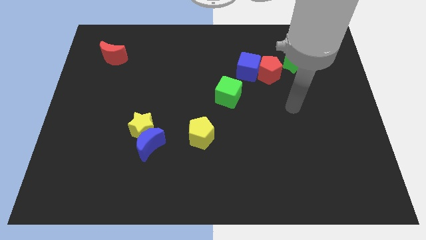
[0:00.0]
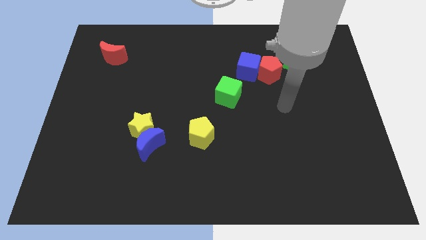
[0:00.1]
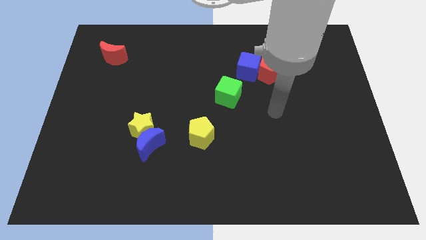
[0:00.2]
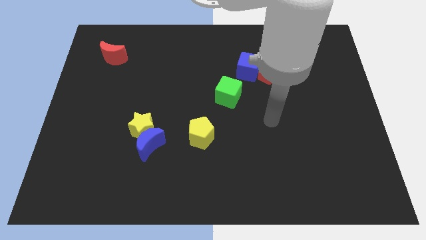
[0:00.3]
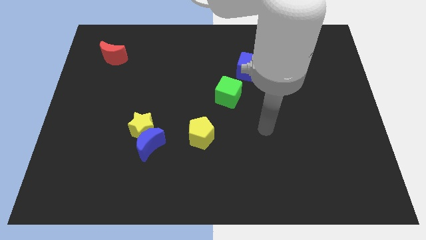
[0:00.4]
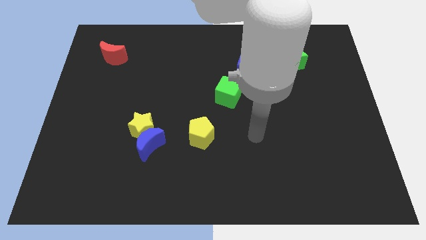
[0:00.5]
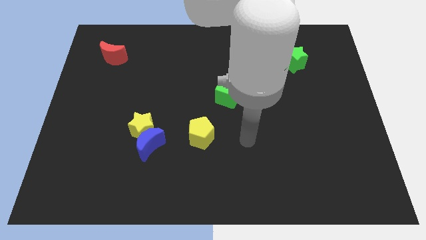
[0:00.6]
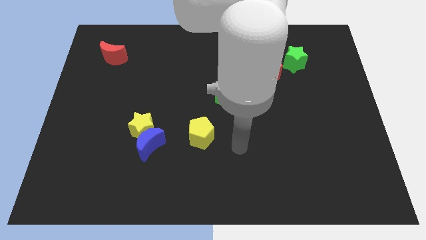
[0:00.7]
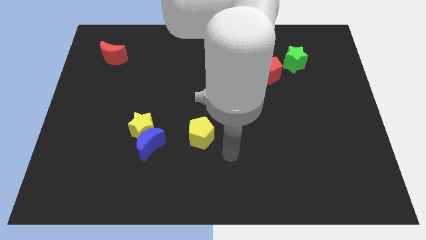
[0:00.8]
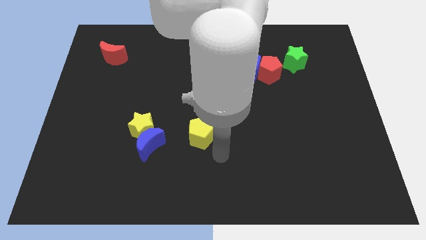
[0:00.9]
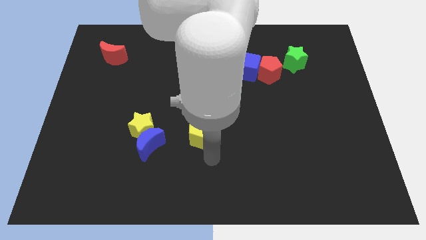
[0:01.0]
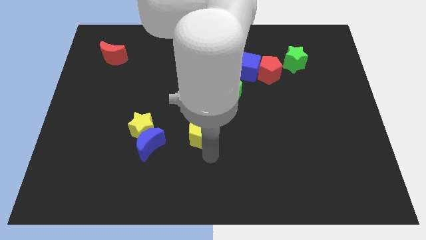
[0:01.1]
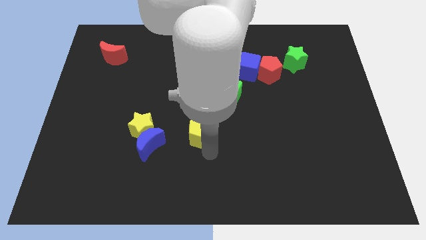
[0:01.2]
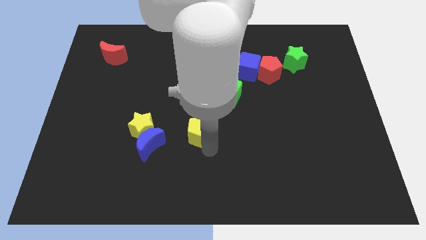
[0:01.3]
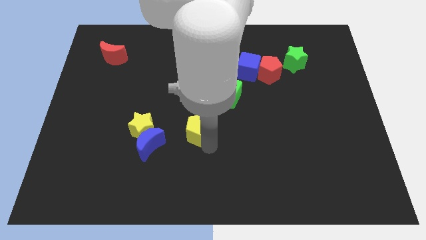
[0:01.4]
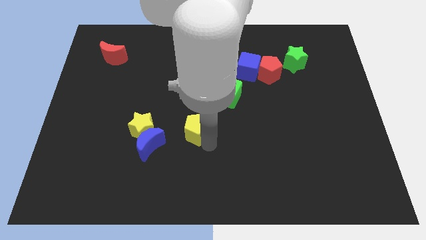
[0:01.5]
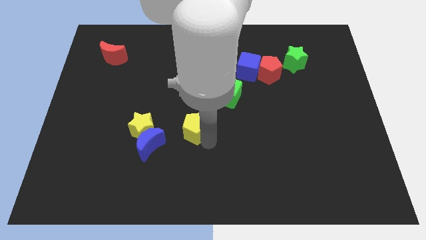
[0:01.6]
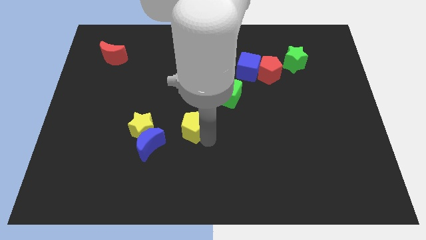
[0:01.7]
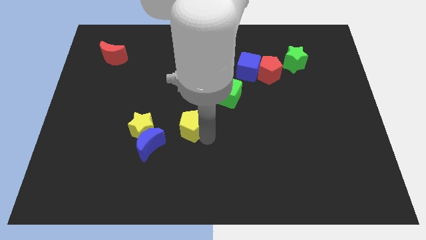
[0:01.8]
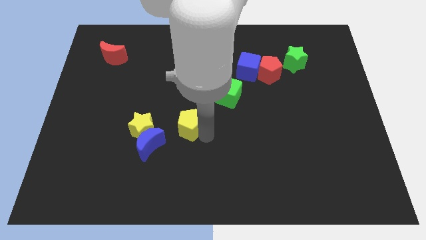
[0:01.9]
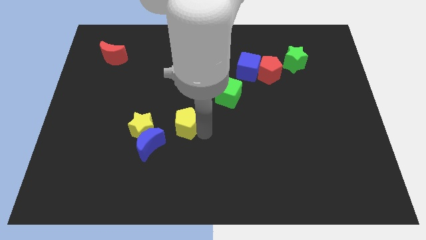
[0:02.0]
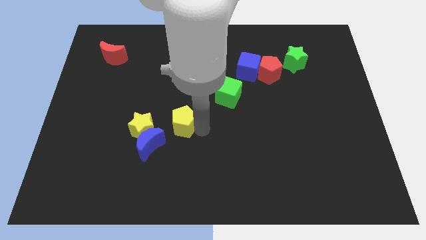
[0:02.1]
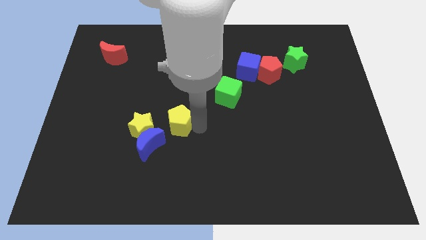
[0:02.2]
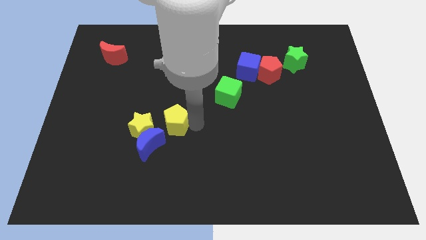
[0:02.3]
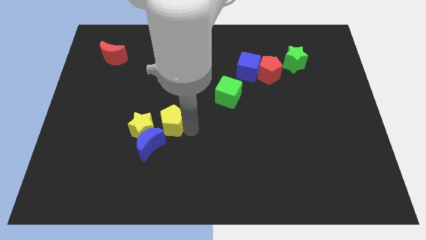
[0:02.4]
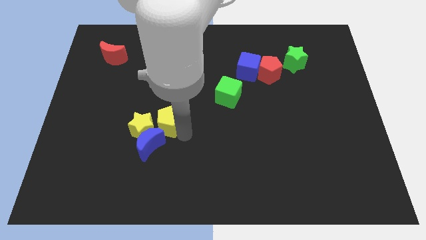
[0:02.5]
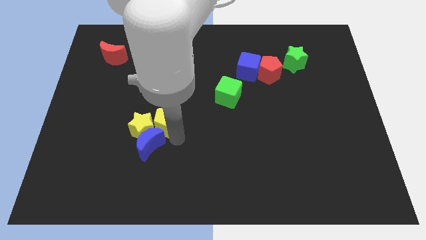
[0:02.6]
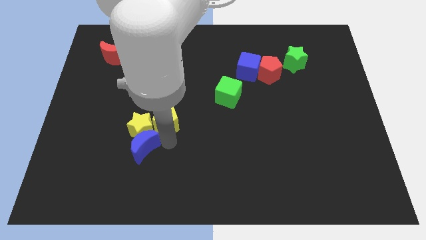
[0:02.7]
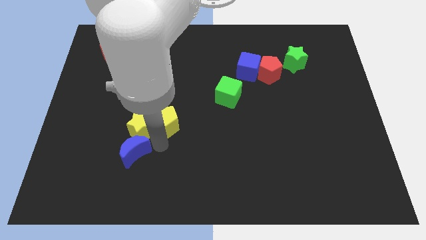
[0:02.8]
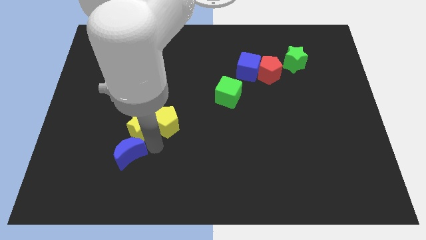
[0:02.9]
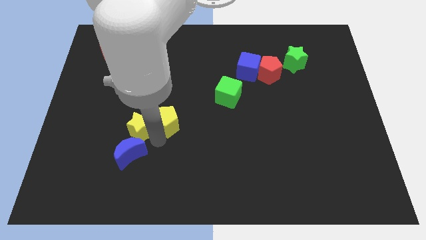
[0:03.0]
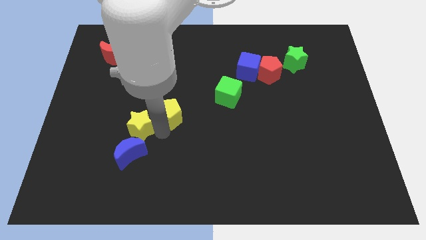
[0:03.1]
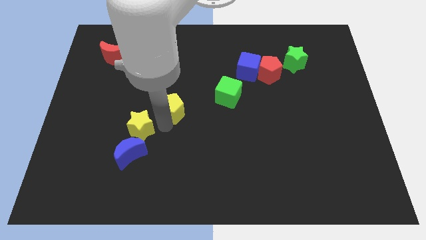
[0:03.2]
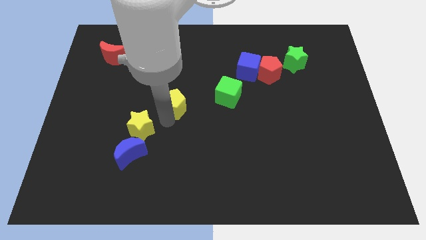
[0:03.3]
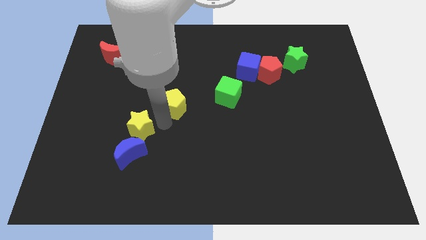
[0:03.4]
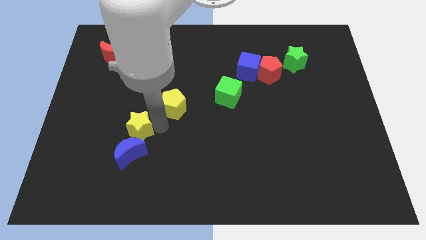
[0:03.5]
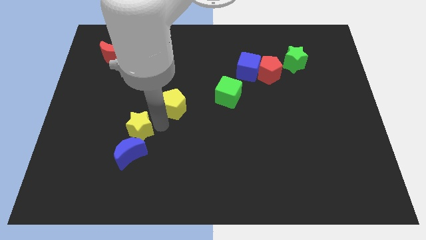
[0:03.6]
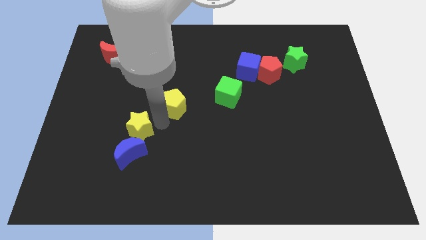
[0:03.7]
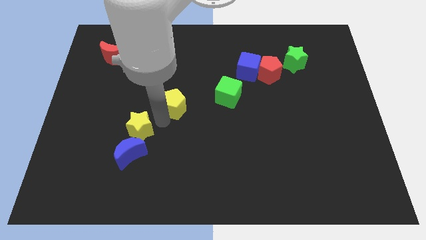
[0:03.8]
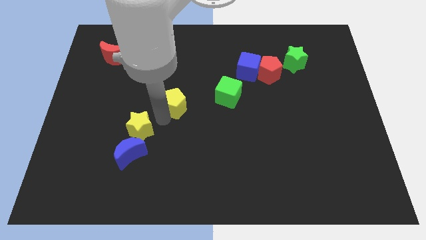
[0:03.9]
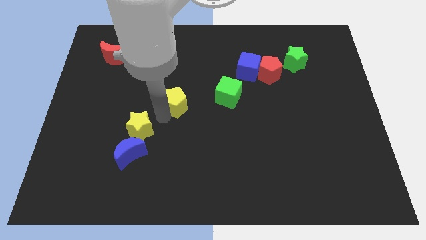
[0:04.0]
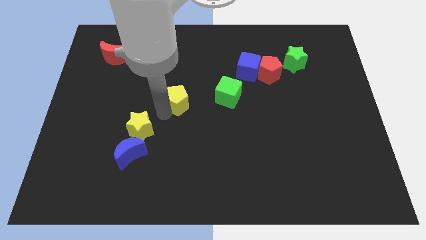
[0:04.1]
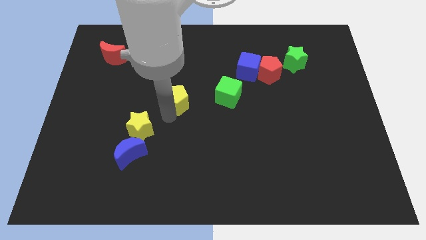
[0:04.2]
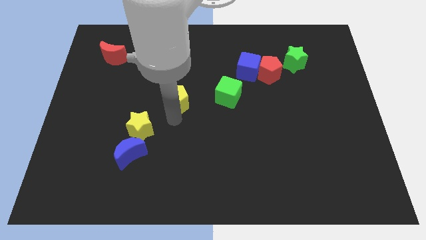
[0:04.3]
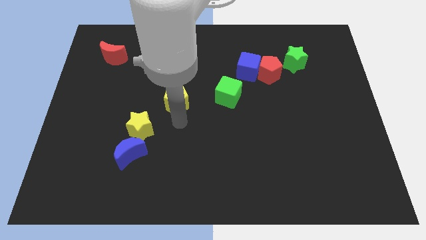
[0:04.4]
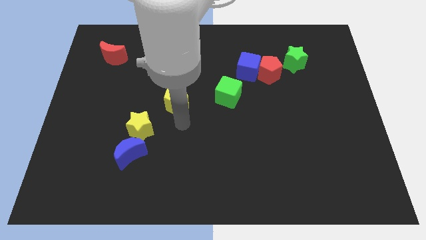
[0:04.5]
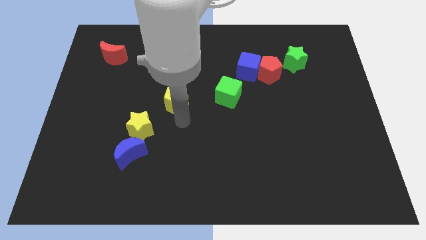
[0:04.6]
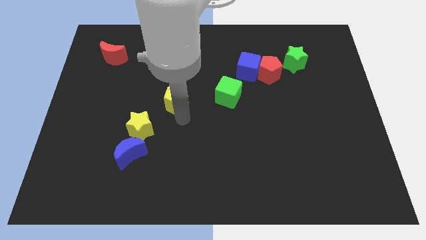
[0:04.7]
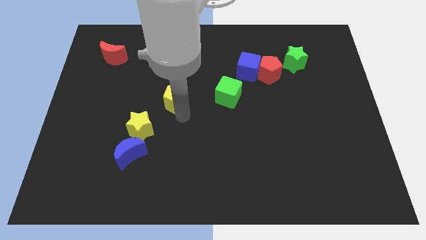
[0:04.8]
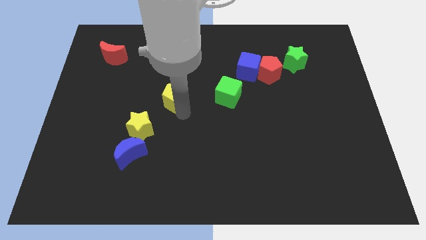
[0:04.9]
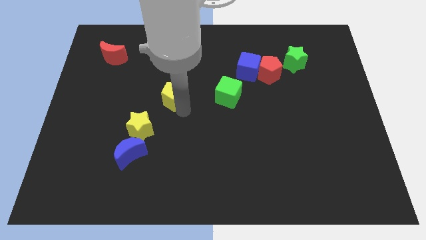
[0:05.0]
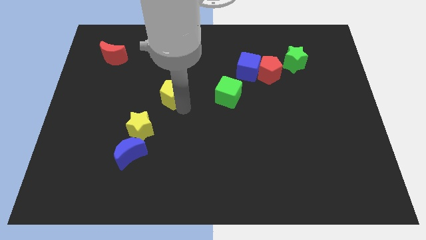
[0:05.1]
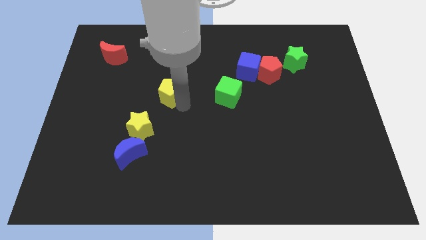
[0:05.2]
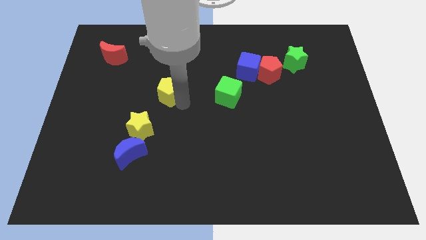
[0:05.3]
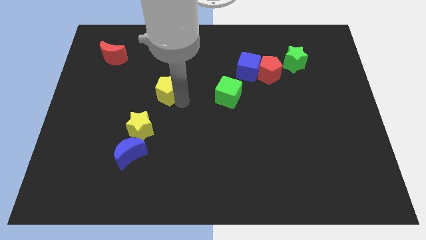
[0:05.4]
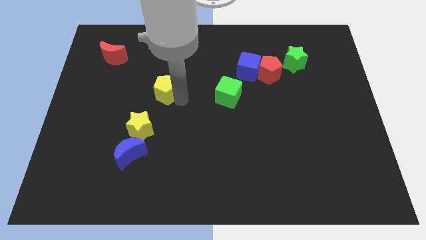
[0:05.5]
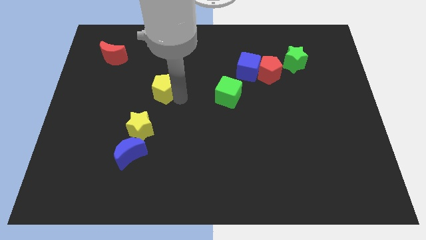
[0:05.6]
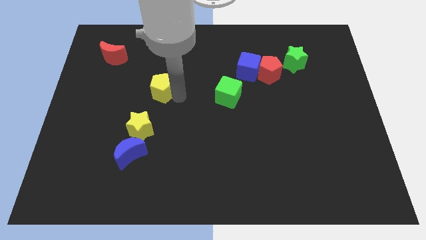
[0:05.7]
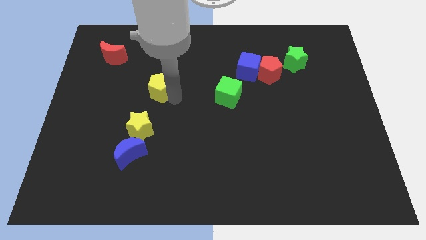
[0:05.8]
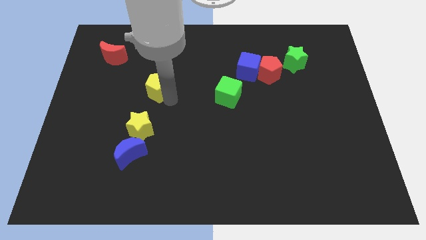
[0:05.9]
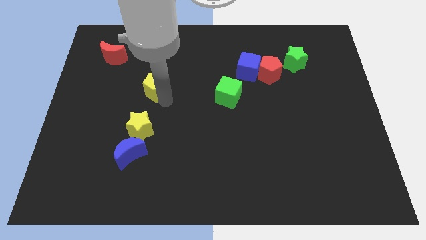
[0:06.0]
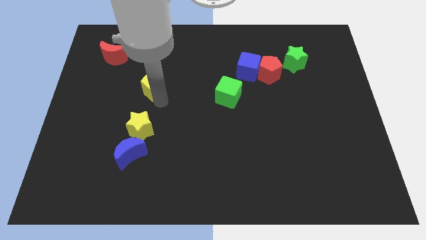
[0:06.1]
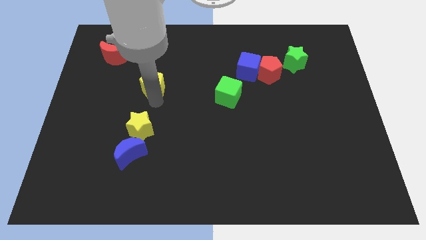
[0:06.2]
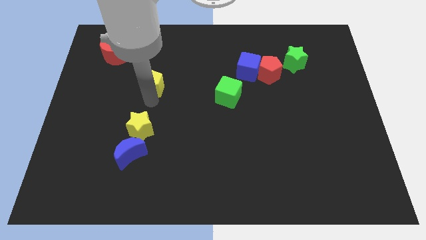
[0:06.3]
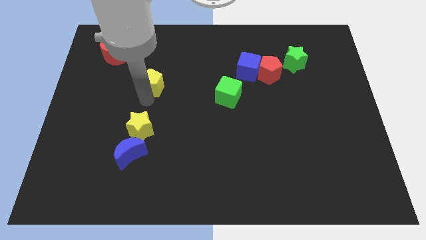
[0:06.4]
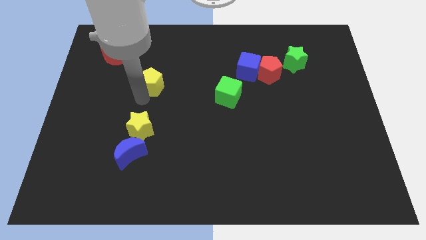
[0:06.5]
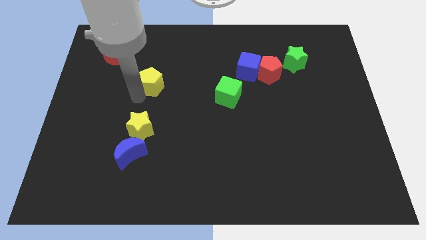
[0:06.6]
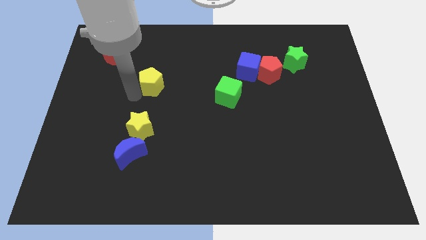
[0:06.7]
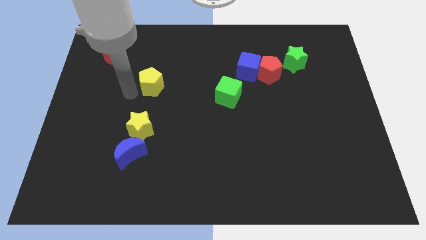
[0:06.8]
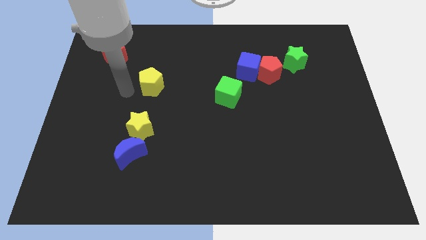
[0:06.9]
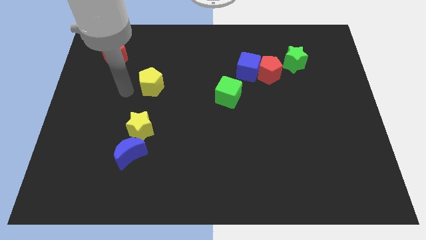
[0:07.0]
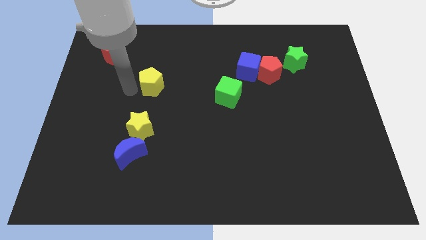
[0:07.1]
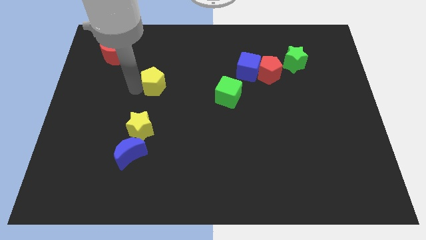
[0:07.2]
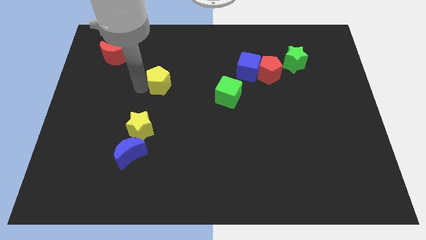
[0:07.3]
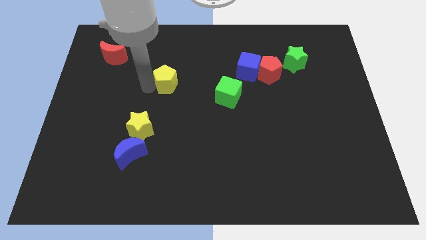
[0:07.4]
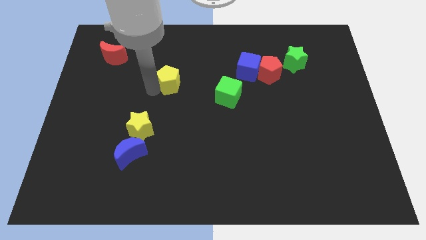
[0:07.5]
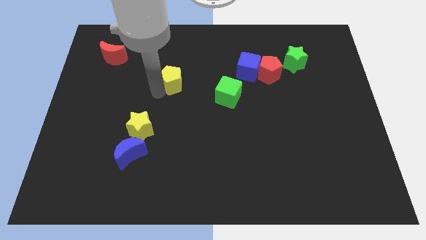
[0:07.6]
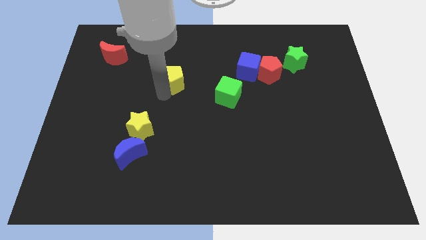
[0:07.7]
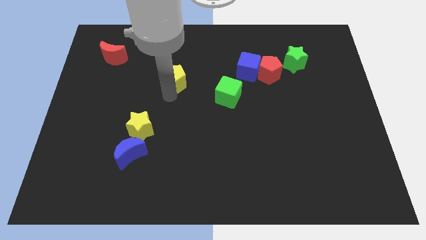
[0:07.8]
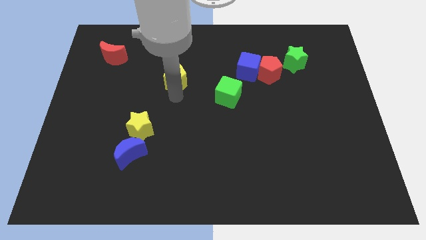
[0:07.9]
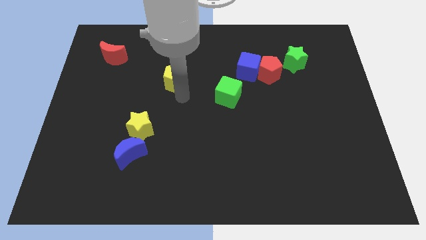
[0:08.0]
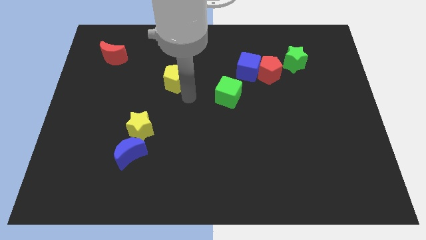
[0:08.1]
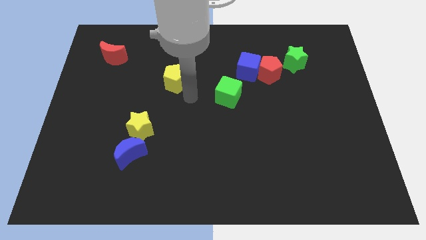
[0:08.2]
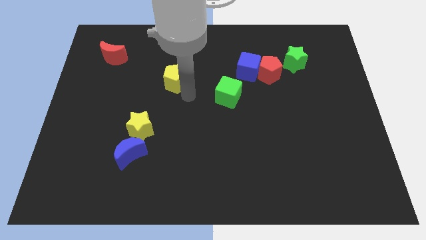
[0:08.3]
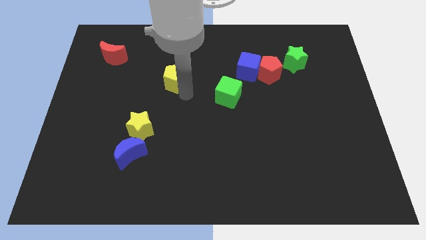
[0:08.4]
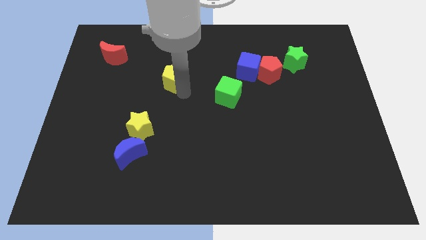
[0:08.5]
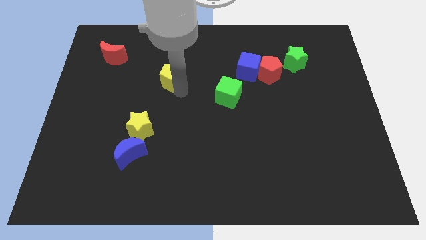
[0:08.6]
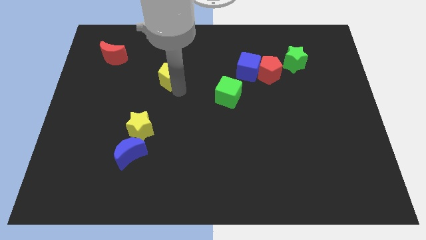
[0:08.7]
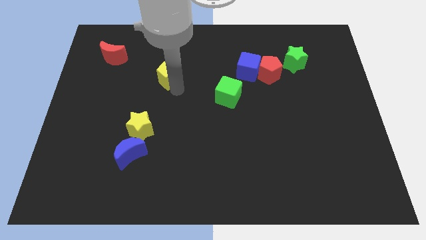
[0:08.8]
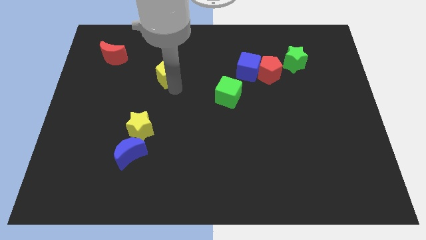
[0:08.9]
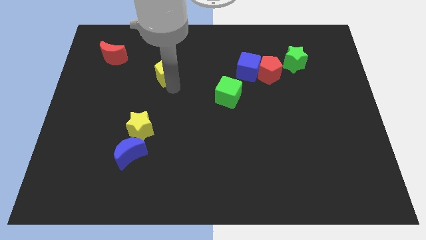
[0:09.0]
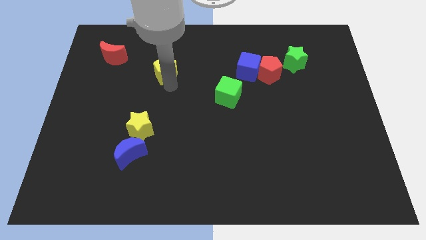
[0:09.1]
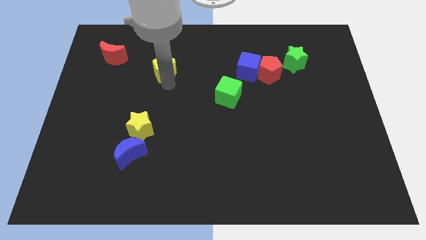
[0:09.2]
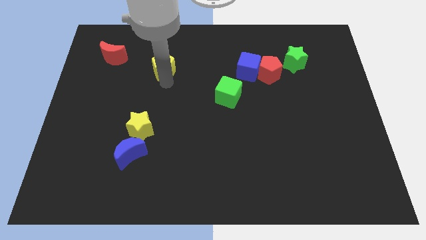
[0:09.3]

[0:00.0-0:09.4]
put the yellow pentagon just right of the red moon
